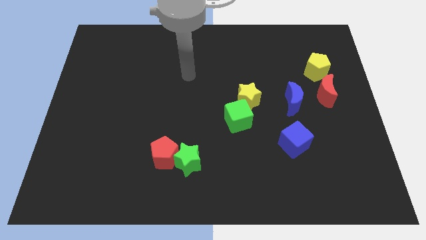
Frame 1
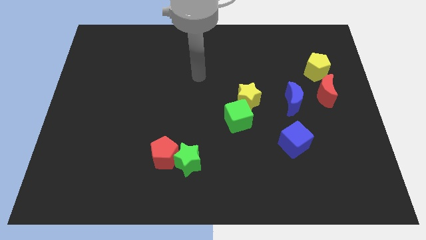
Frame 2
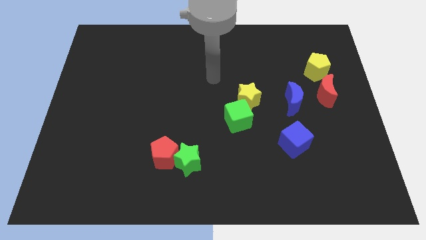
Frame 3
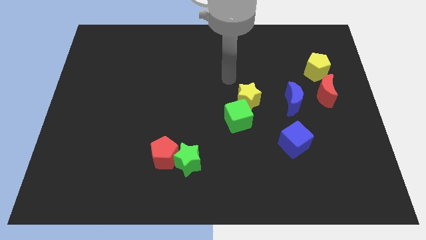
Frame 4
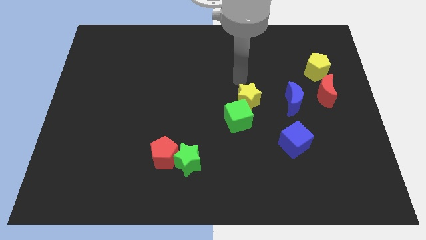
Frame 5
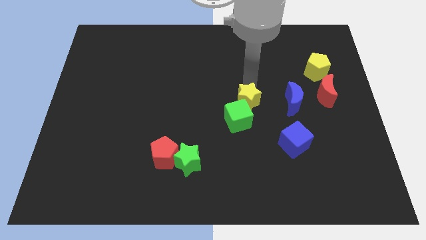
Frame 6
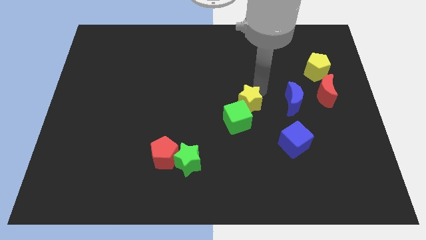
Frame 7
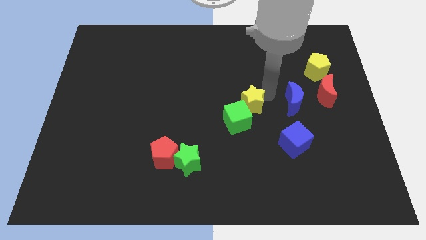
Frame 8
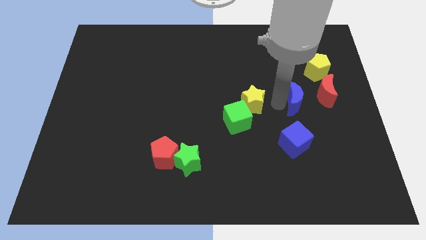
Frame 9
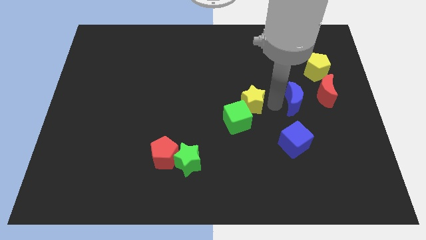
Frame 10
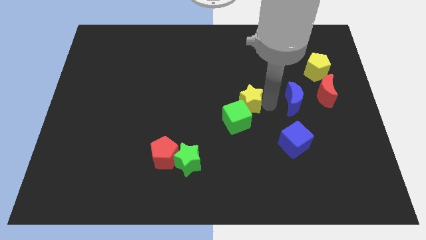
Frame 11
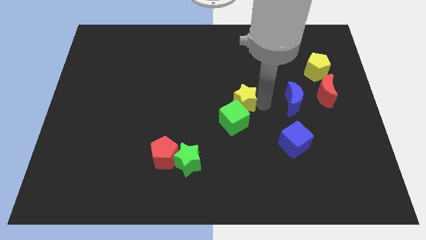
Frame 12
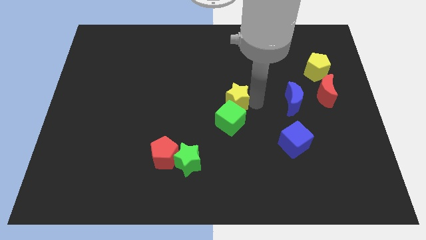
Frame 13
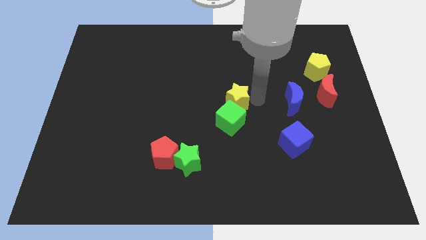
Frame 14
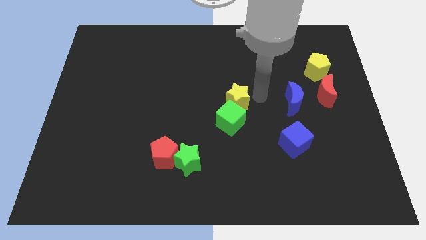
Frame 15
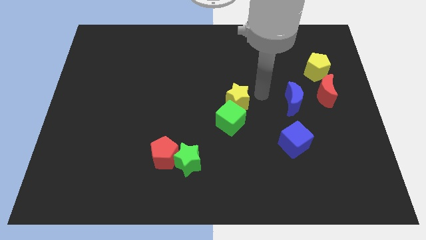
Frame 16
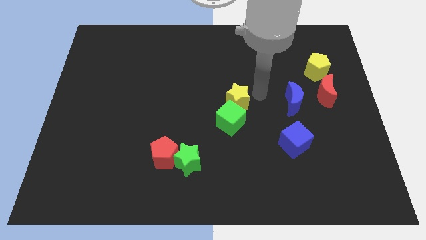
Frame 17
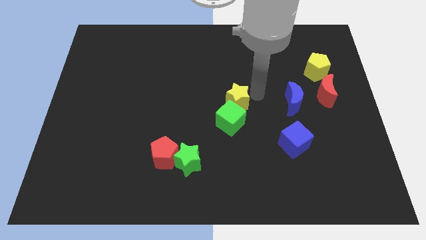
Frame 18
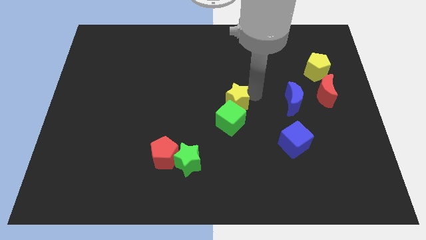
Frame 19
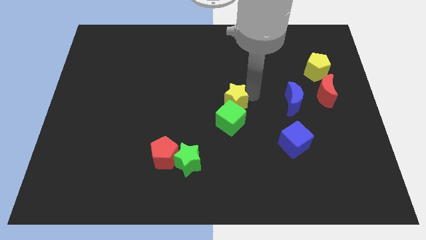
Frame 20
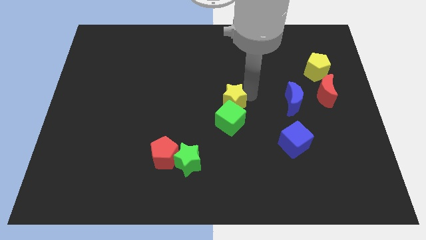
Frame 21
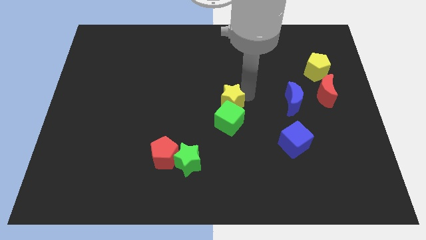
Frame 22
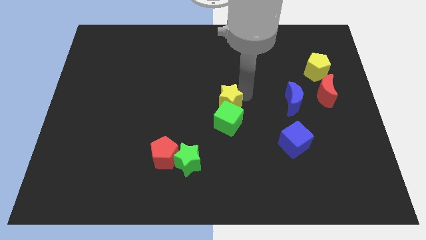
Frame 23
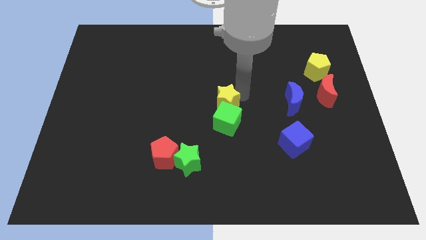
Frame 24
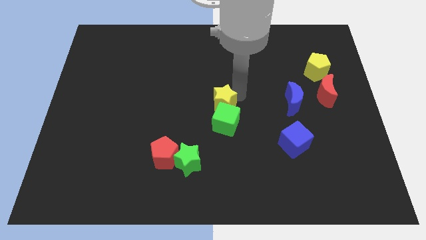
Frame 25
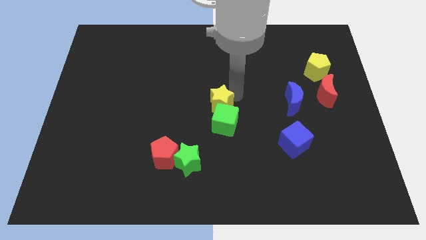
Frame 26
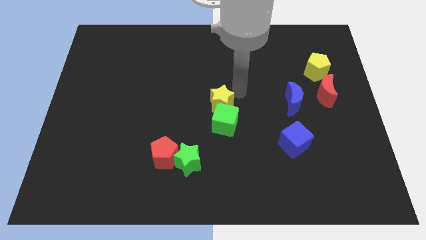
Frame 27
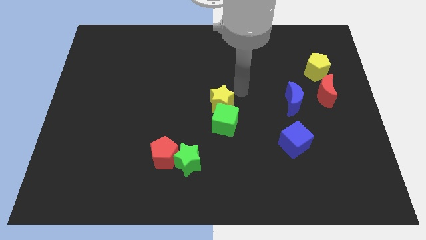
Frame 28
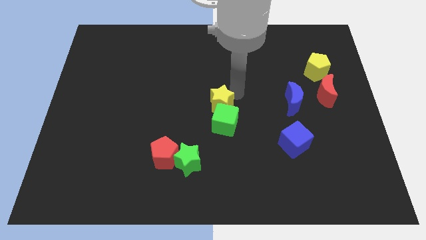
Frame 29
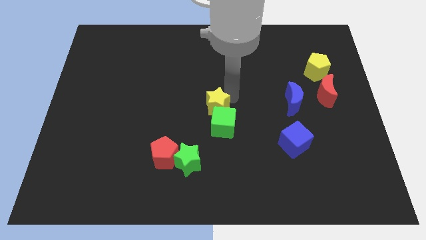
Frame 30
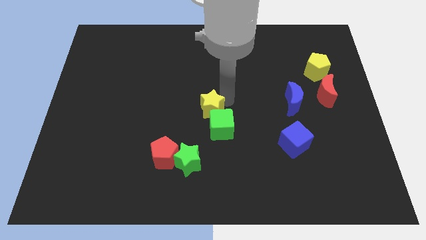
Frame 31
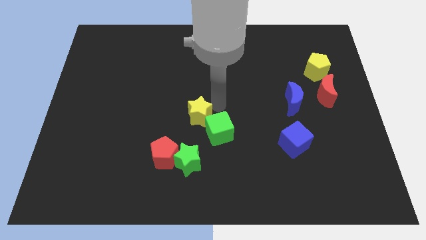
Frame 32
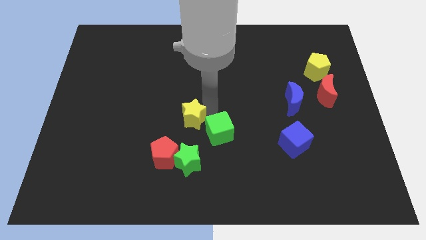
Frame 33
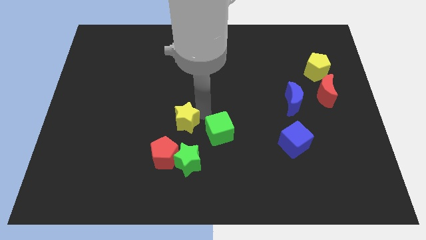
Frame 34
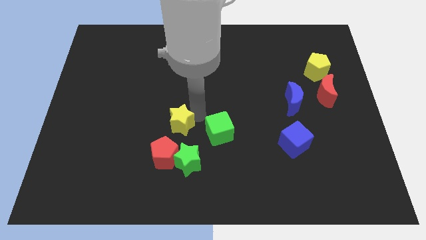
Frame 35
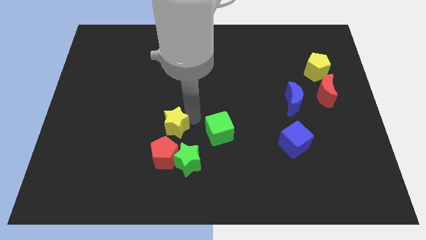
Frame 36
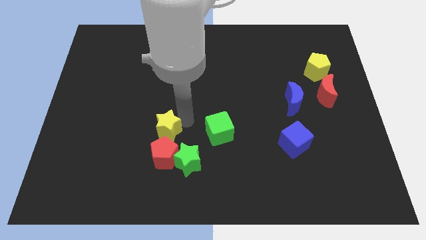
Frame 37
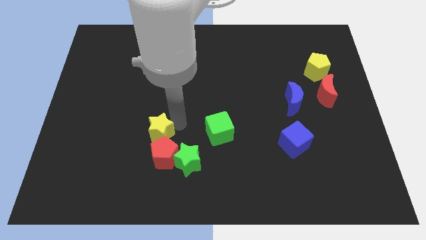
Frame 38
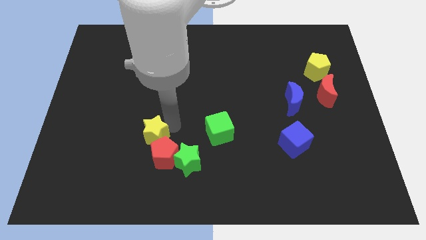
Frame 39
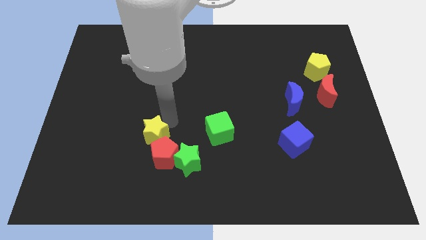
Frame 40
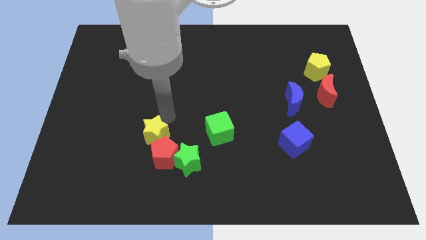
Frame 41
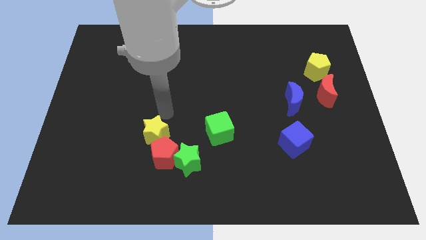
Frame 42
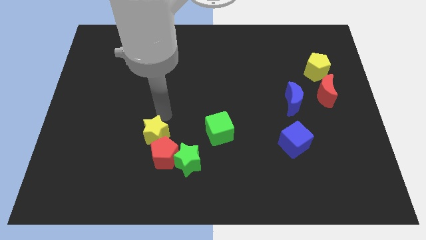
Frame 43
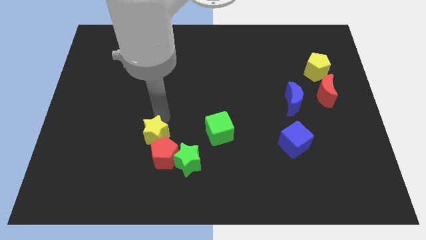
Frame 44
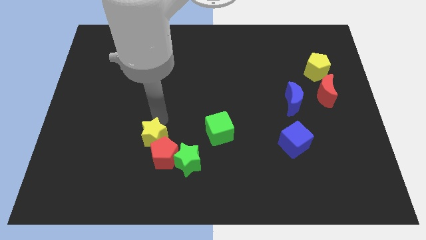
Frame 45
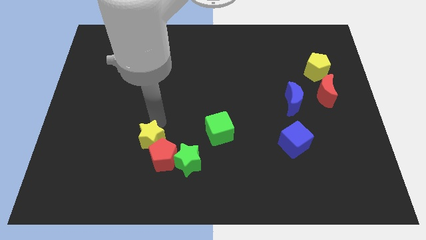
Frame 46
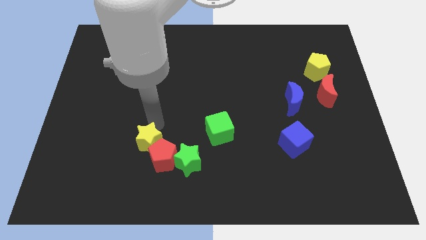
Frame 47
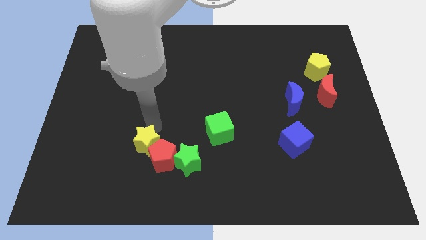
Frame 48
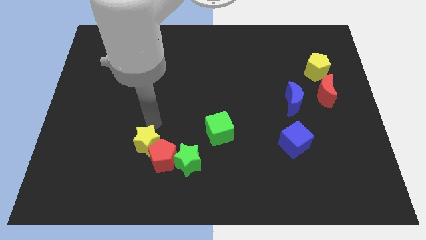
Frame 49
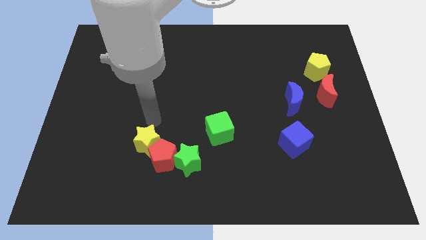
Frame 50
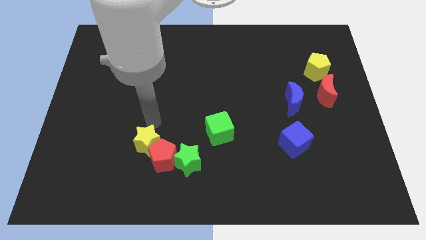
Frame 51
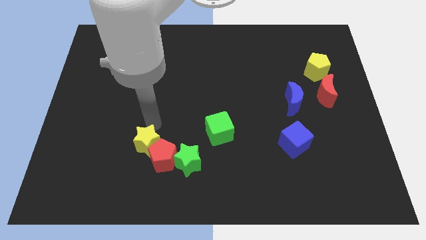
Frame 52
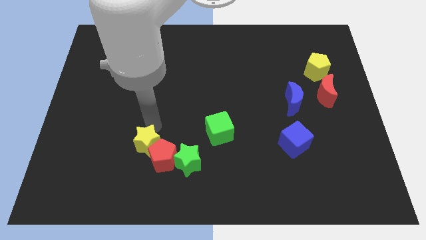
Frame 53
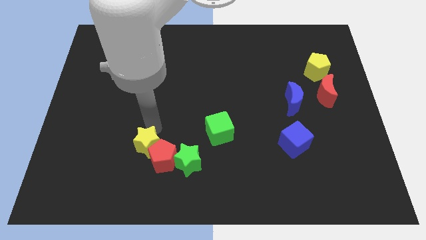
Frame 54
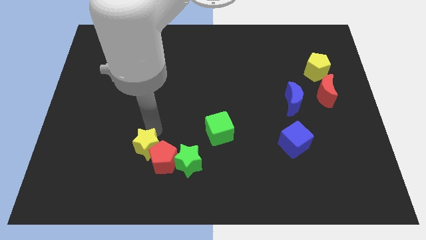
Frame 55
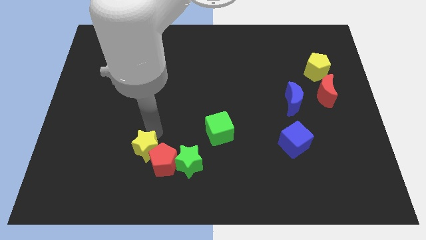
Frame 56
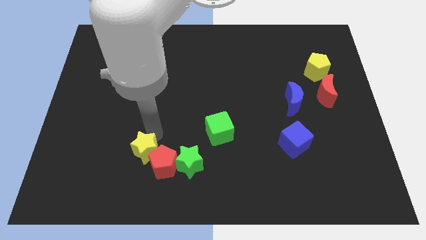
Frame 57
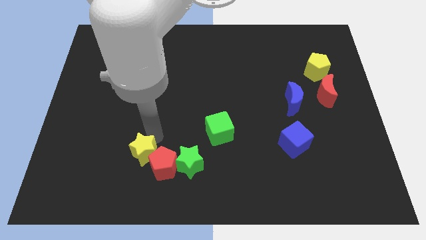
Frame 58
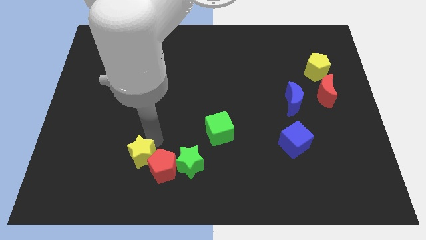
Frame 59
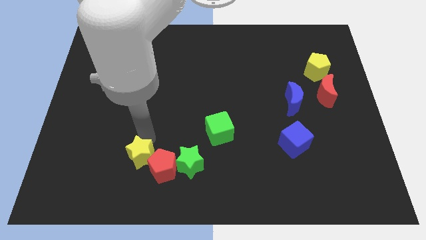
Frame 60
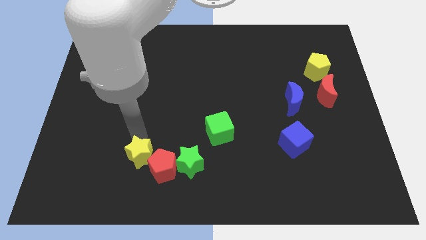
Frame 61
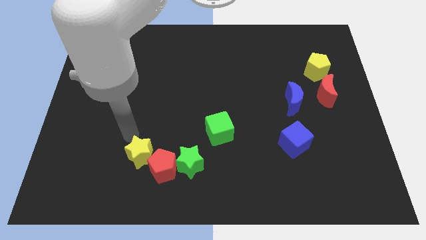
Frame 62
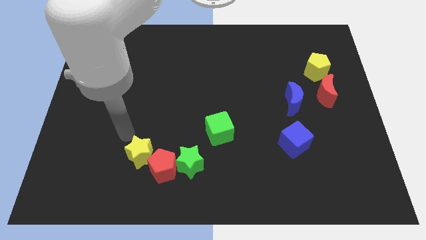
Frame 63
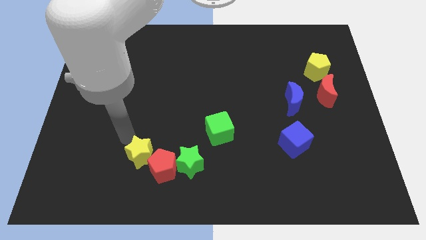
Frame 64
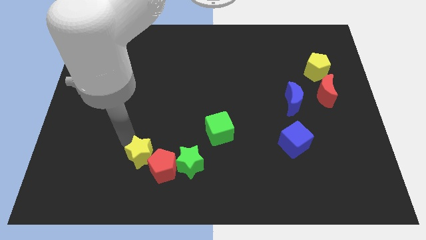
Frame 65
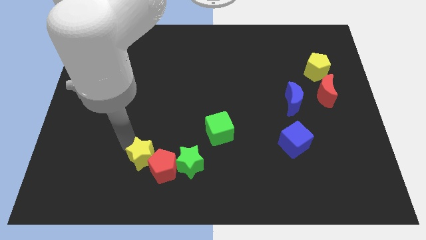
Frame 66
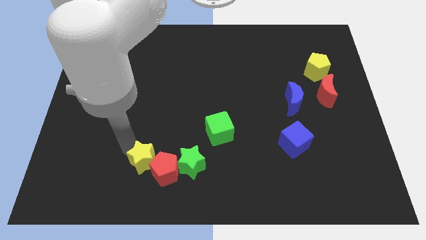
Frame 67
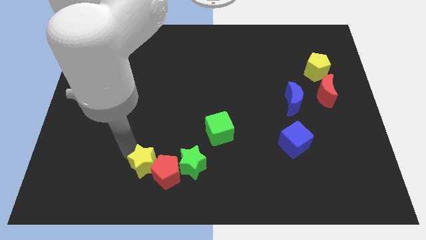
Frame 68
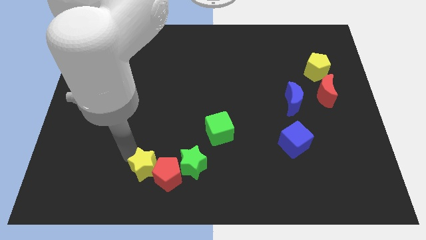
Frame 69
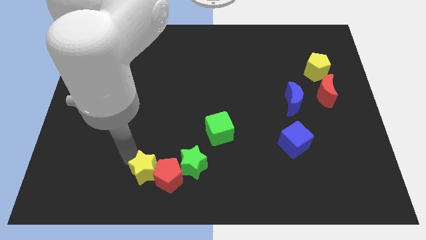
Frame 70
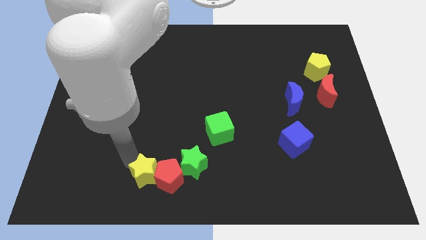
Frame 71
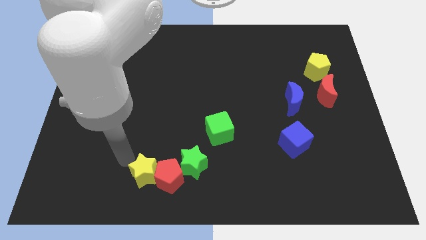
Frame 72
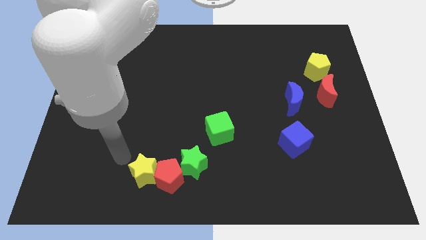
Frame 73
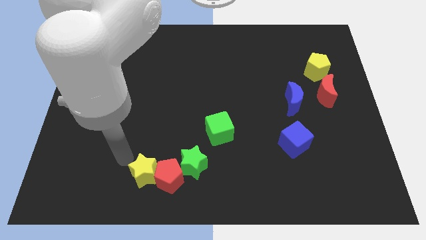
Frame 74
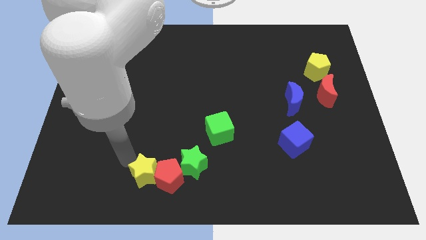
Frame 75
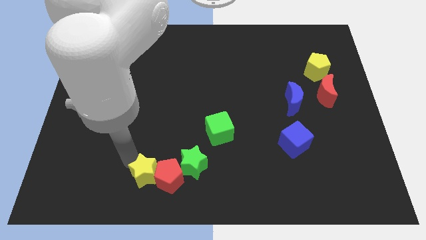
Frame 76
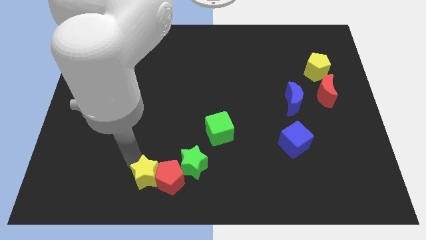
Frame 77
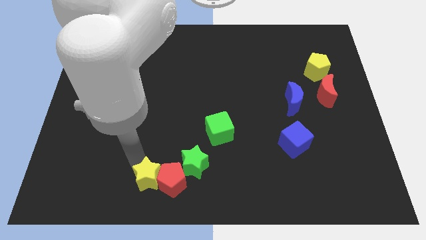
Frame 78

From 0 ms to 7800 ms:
move the yellow star diagonally down and to the left of the green star
